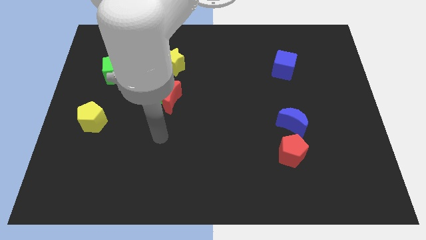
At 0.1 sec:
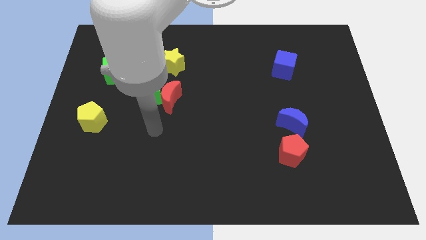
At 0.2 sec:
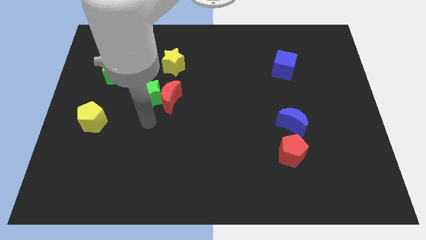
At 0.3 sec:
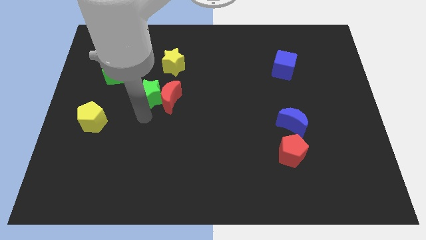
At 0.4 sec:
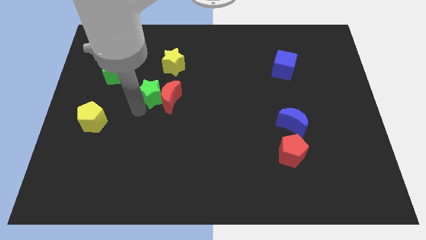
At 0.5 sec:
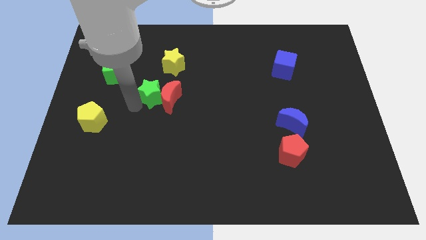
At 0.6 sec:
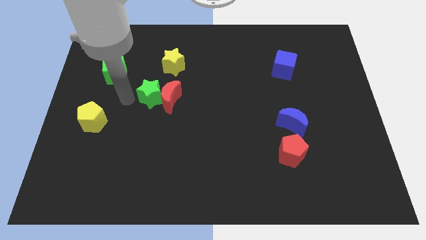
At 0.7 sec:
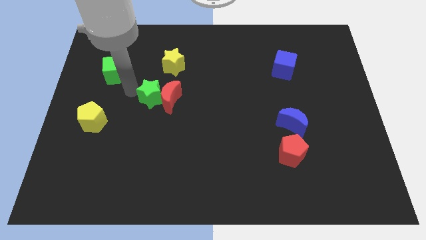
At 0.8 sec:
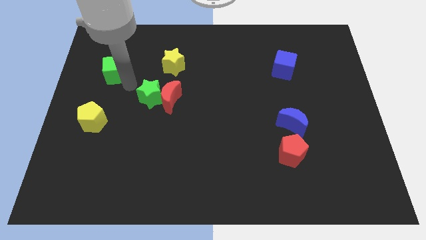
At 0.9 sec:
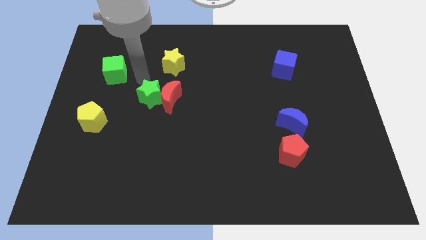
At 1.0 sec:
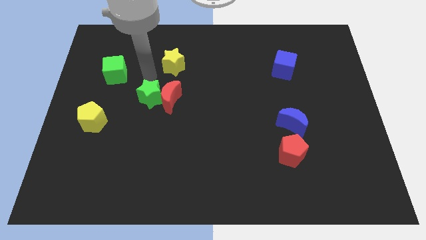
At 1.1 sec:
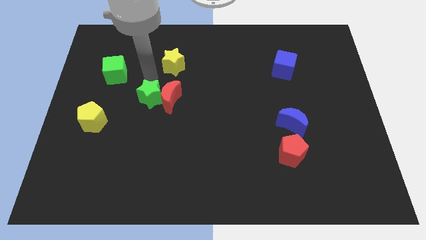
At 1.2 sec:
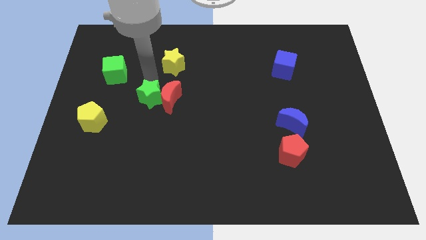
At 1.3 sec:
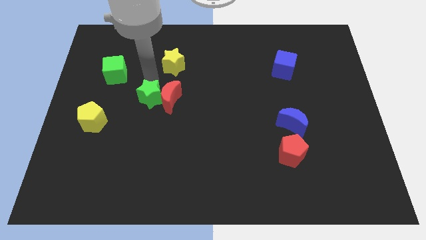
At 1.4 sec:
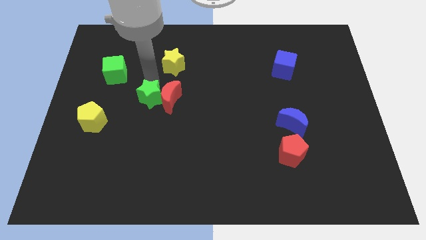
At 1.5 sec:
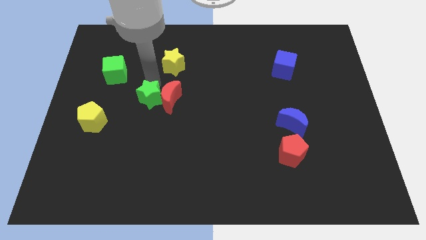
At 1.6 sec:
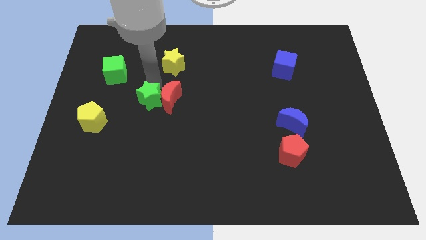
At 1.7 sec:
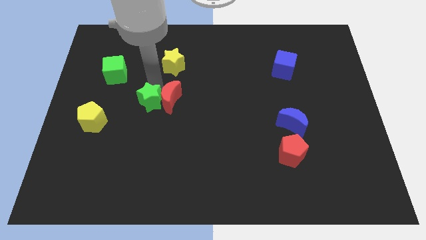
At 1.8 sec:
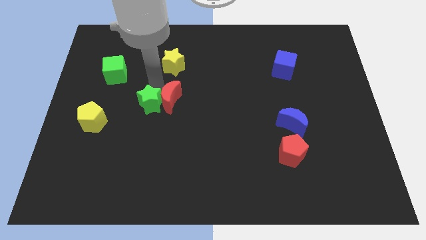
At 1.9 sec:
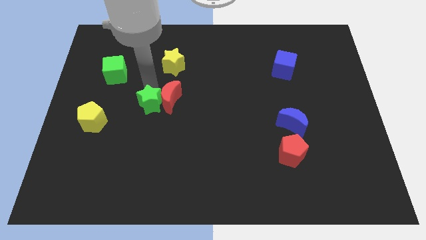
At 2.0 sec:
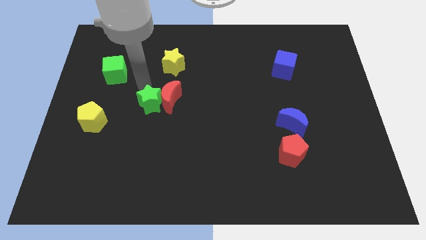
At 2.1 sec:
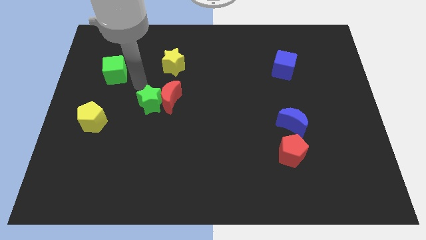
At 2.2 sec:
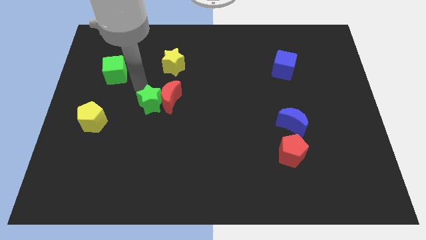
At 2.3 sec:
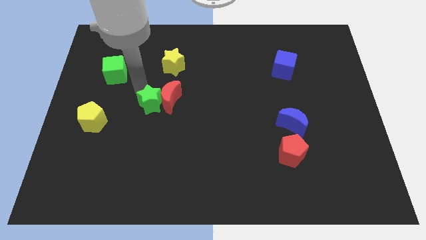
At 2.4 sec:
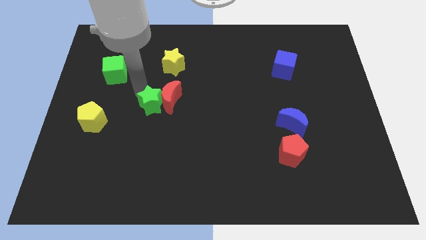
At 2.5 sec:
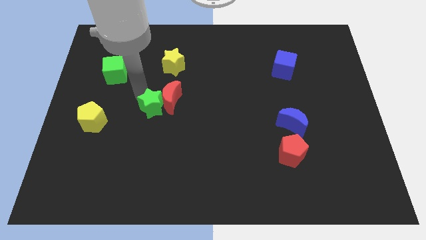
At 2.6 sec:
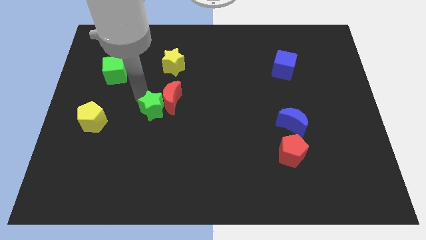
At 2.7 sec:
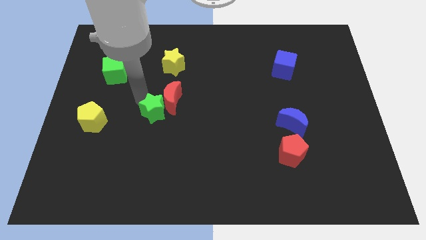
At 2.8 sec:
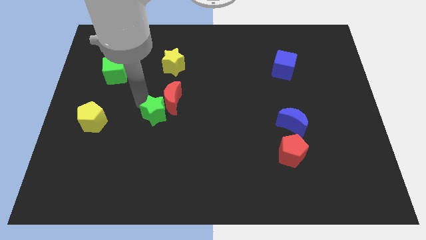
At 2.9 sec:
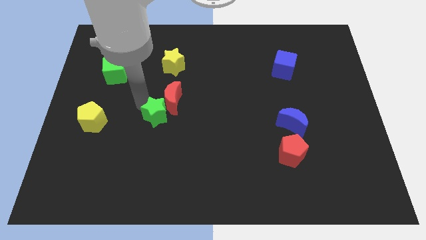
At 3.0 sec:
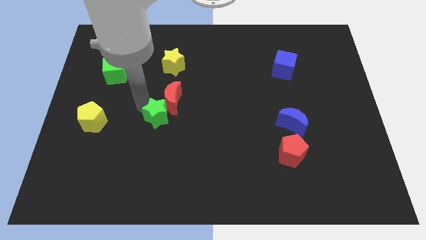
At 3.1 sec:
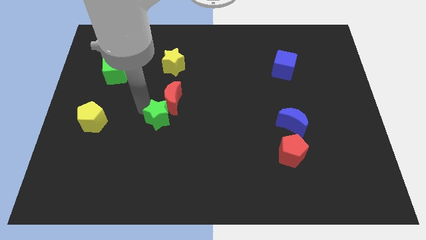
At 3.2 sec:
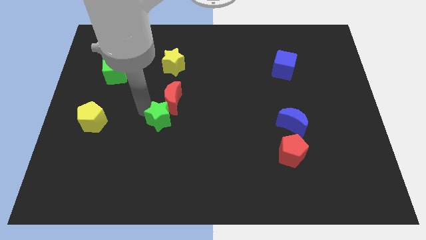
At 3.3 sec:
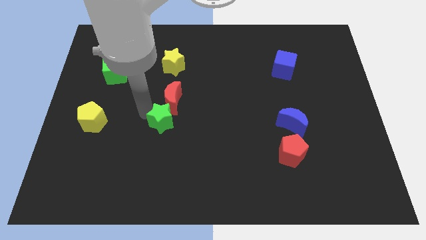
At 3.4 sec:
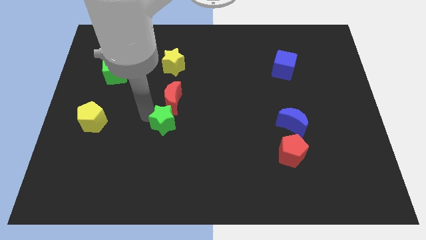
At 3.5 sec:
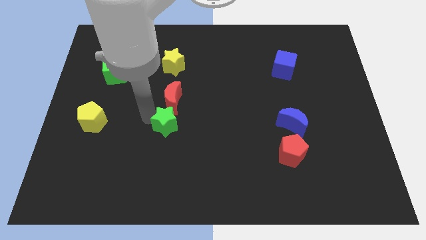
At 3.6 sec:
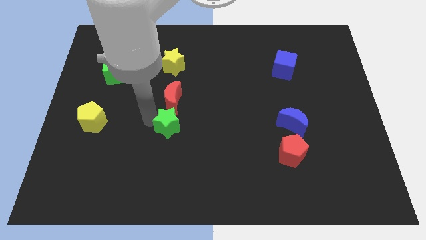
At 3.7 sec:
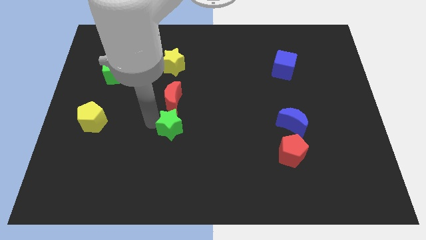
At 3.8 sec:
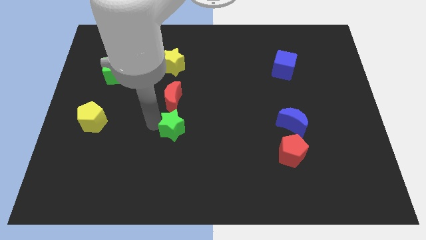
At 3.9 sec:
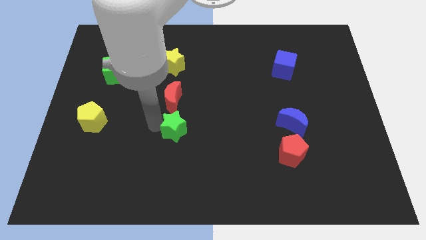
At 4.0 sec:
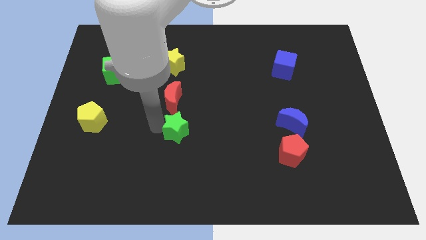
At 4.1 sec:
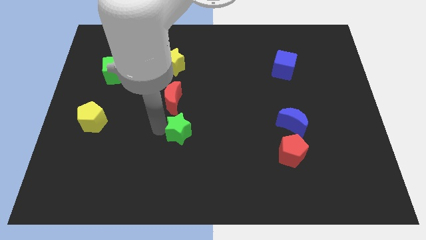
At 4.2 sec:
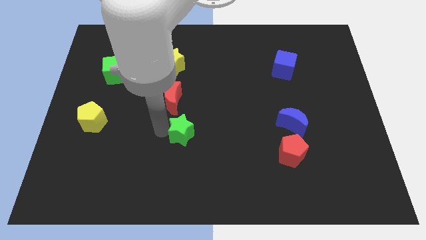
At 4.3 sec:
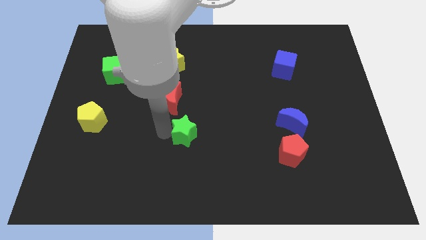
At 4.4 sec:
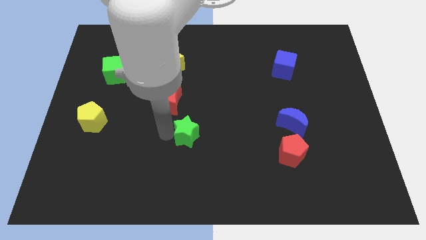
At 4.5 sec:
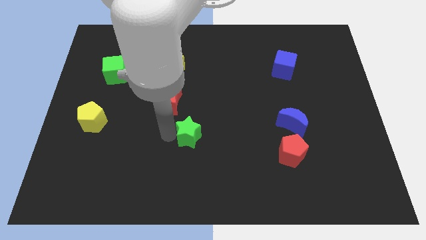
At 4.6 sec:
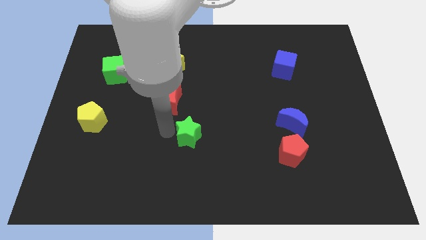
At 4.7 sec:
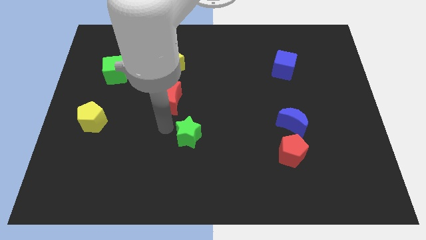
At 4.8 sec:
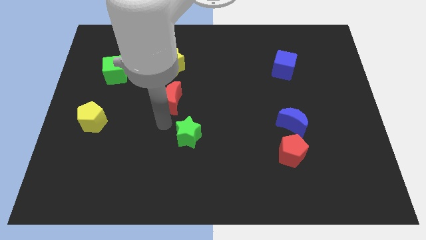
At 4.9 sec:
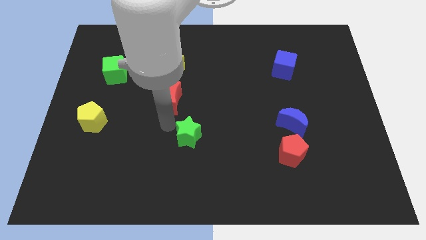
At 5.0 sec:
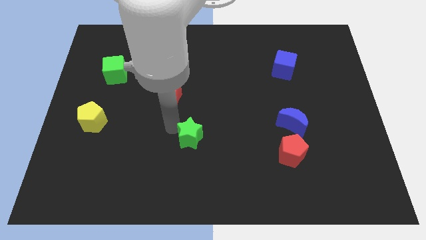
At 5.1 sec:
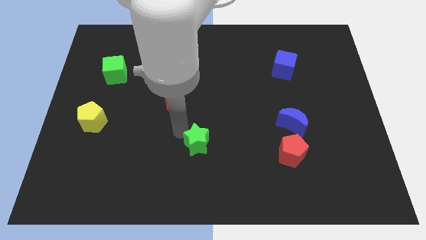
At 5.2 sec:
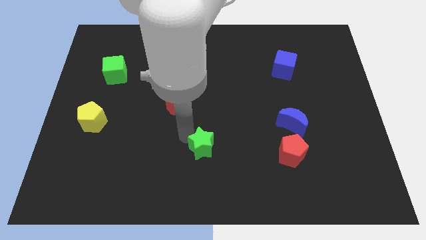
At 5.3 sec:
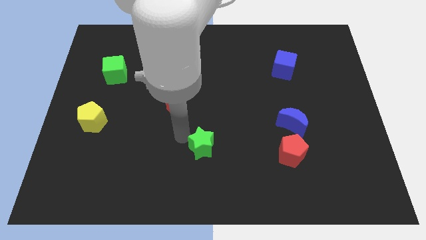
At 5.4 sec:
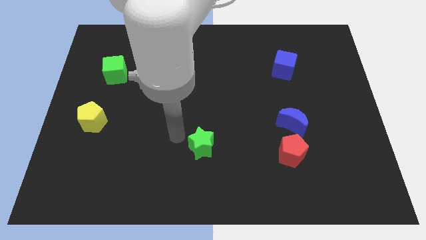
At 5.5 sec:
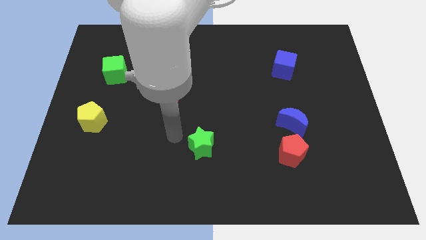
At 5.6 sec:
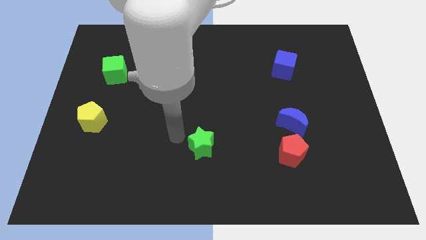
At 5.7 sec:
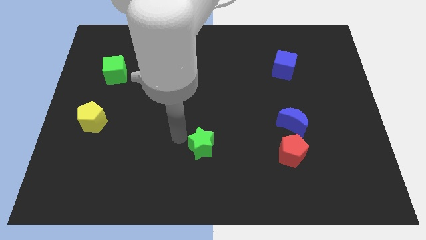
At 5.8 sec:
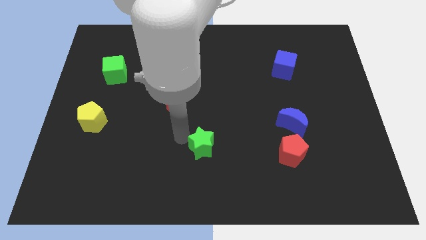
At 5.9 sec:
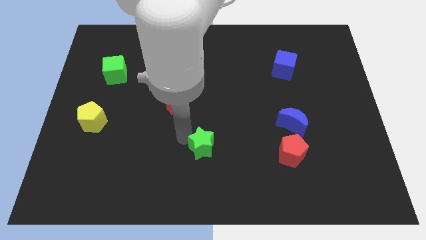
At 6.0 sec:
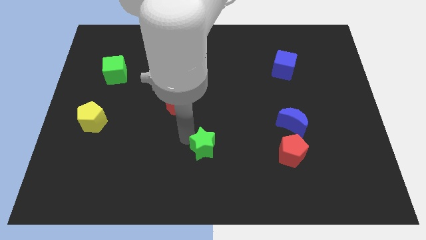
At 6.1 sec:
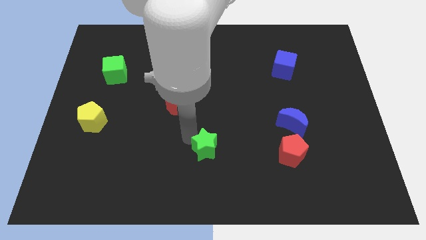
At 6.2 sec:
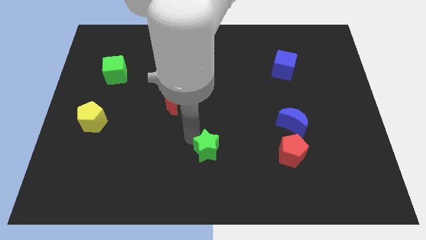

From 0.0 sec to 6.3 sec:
push the green star down and then right

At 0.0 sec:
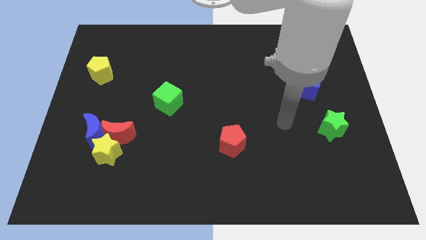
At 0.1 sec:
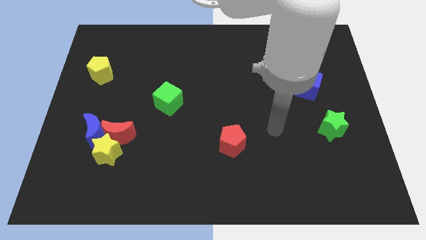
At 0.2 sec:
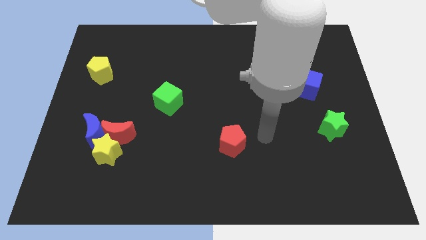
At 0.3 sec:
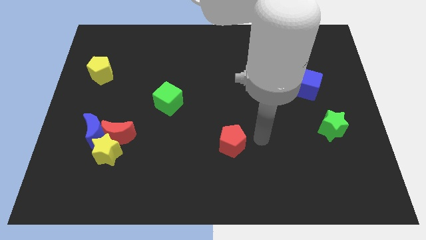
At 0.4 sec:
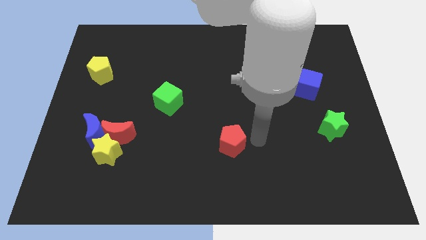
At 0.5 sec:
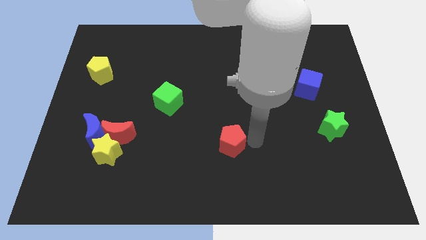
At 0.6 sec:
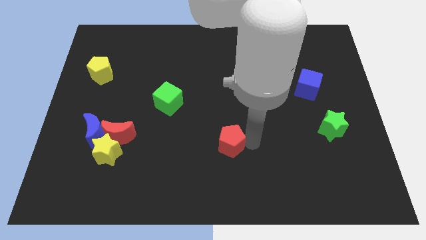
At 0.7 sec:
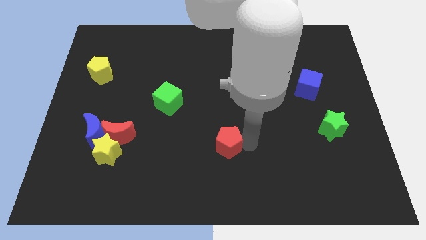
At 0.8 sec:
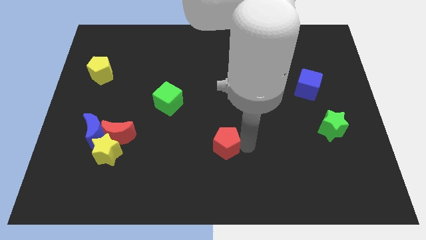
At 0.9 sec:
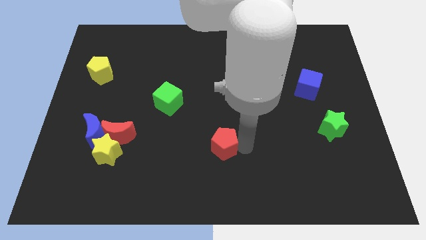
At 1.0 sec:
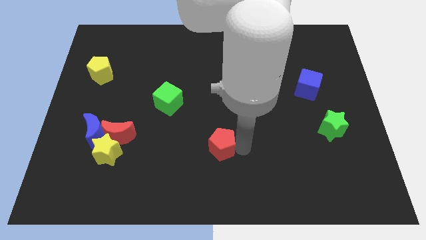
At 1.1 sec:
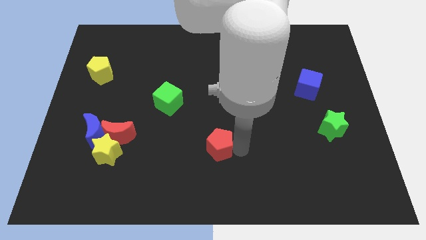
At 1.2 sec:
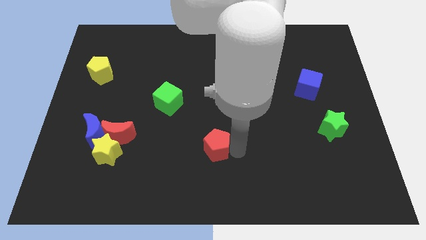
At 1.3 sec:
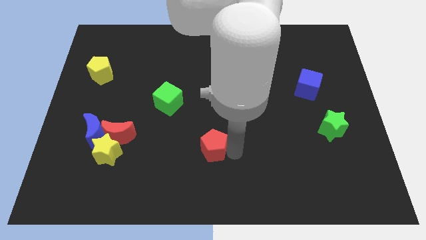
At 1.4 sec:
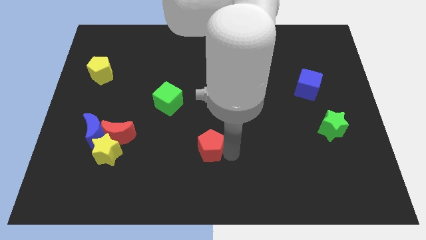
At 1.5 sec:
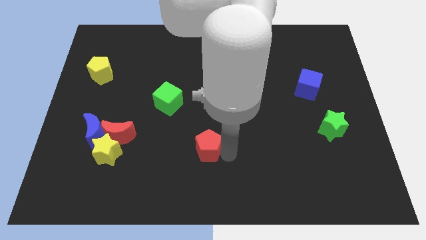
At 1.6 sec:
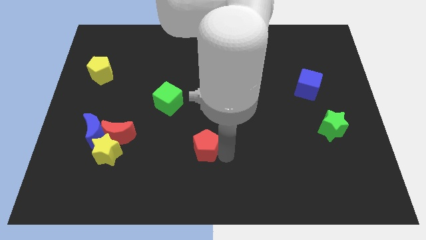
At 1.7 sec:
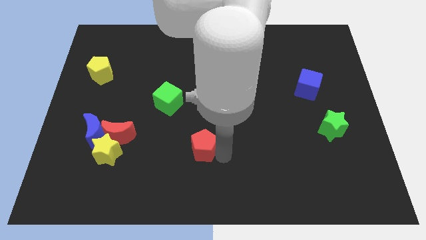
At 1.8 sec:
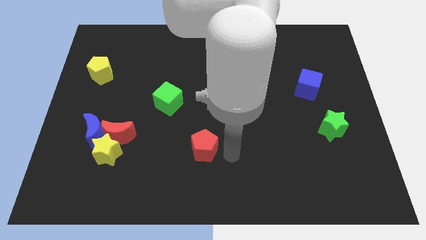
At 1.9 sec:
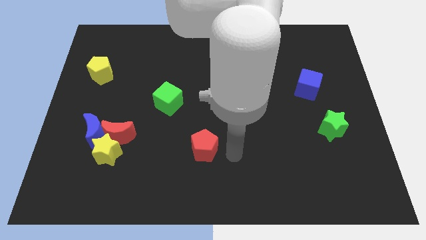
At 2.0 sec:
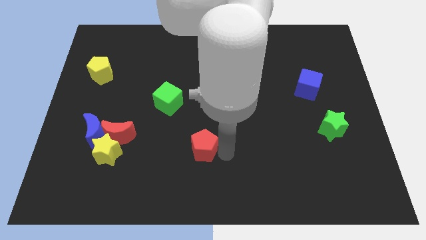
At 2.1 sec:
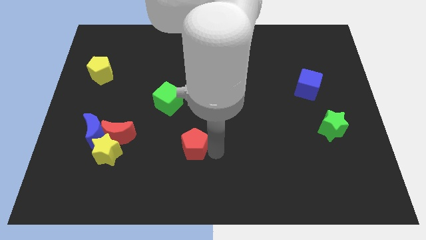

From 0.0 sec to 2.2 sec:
slightly slide the red pentagon to the left
